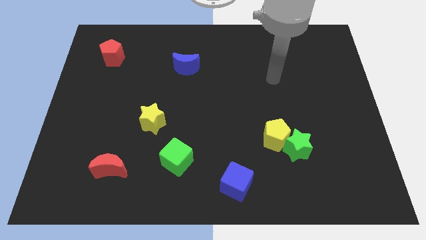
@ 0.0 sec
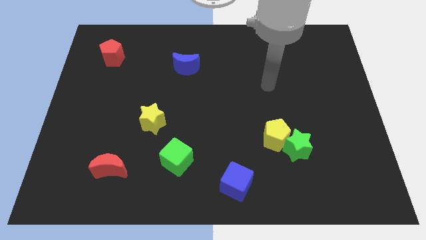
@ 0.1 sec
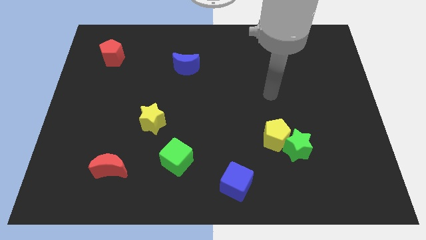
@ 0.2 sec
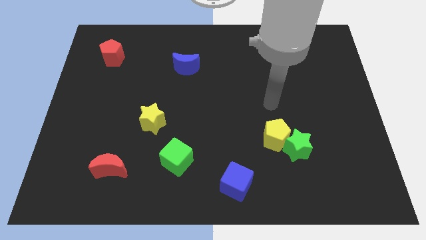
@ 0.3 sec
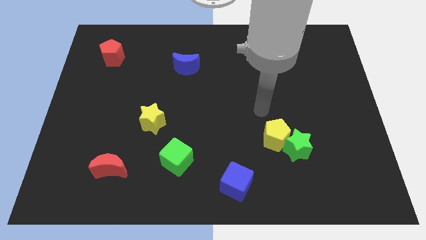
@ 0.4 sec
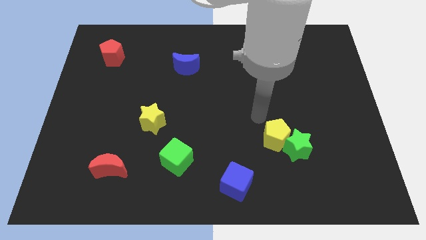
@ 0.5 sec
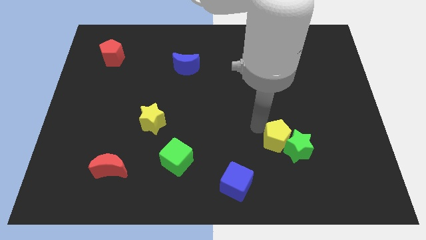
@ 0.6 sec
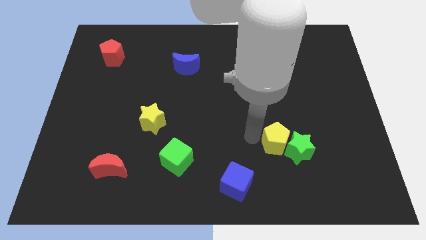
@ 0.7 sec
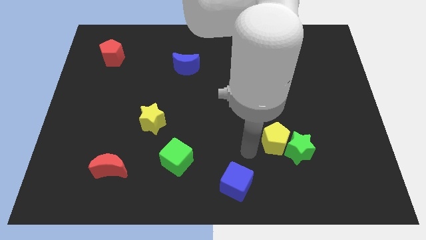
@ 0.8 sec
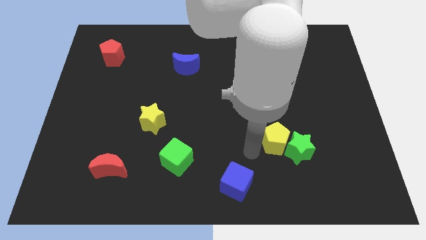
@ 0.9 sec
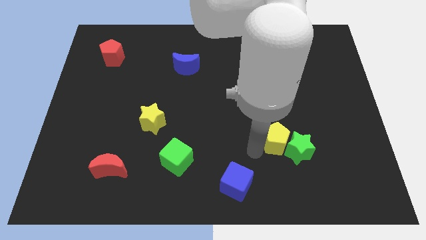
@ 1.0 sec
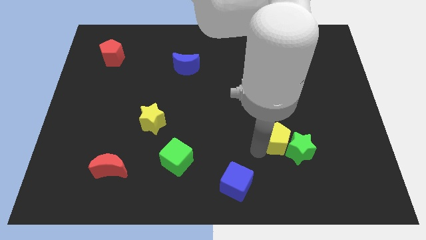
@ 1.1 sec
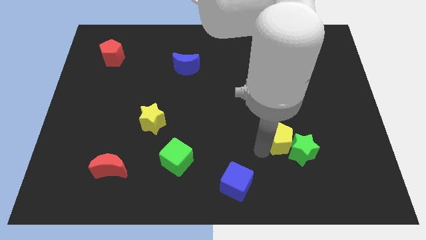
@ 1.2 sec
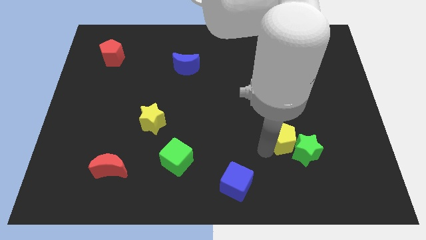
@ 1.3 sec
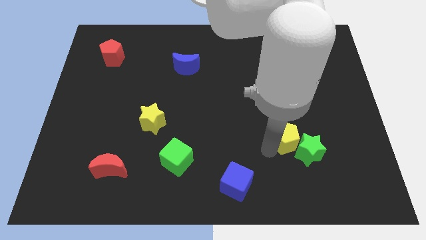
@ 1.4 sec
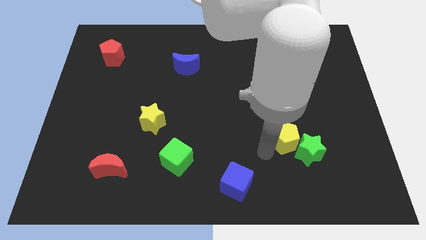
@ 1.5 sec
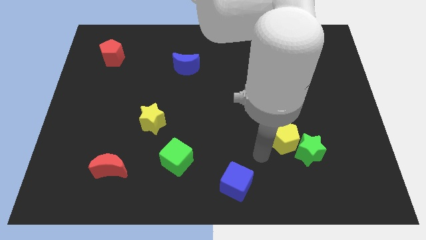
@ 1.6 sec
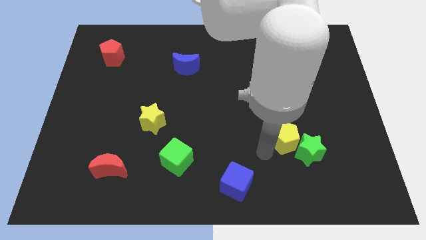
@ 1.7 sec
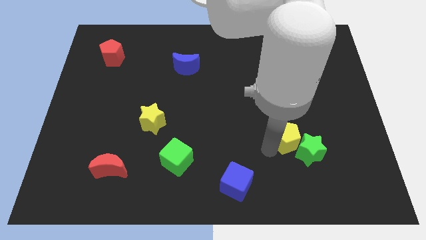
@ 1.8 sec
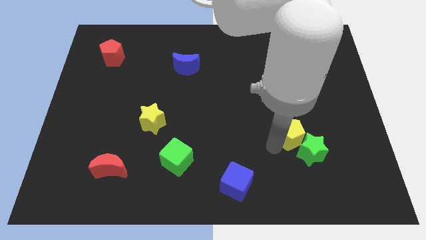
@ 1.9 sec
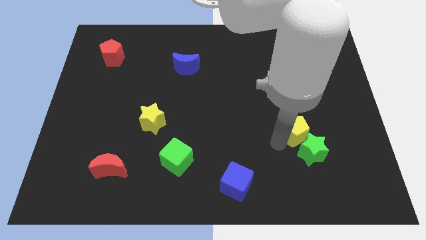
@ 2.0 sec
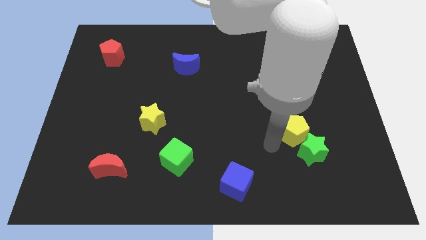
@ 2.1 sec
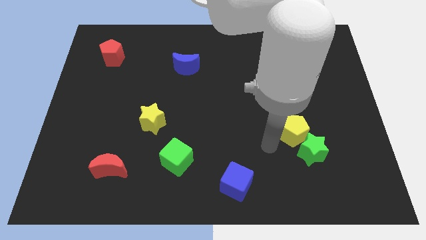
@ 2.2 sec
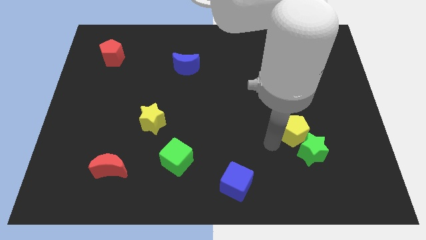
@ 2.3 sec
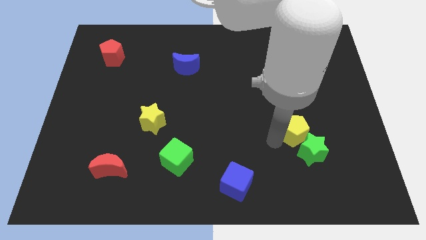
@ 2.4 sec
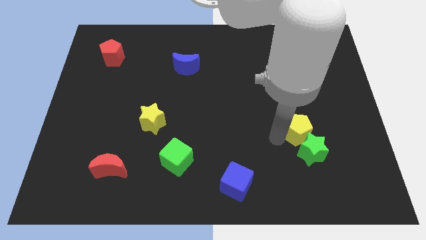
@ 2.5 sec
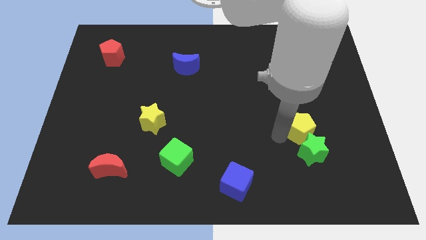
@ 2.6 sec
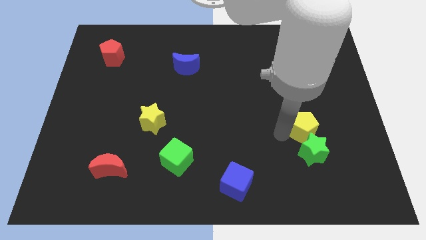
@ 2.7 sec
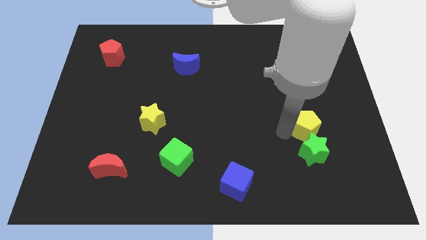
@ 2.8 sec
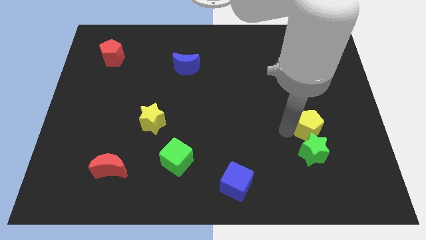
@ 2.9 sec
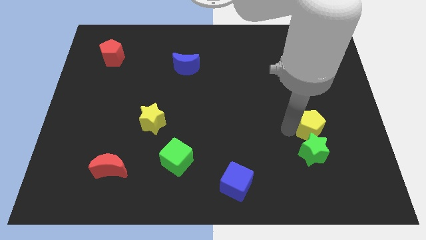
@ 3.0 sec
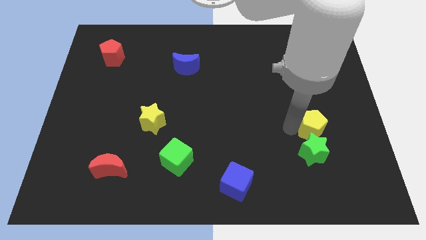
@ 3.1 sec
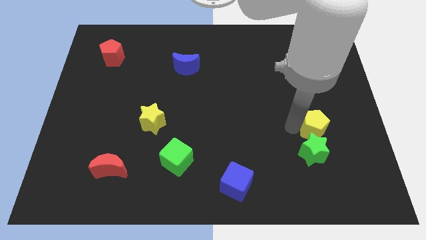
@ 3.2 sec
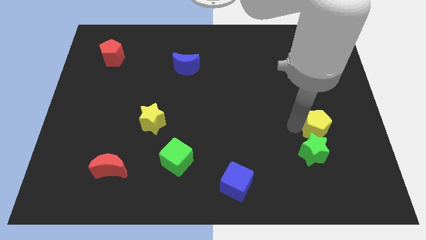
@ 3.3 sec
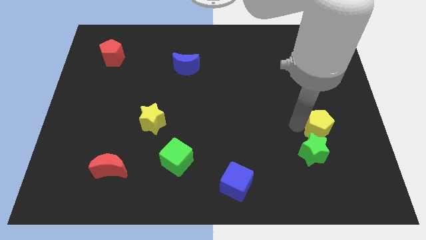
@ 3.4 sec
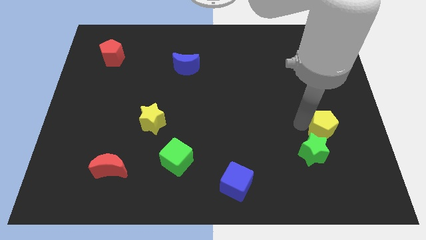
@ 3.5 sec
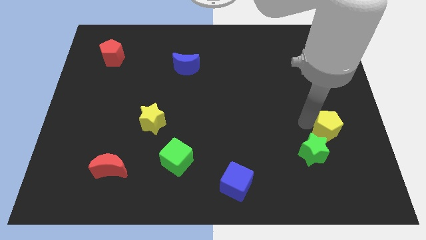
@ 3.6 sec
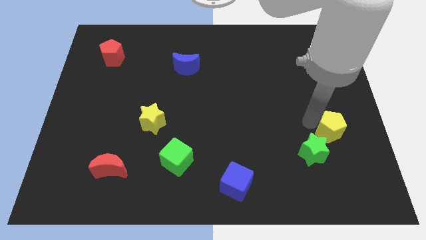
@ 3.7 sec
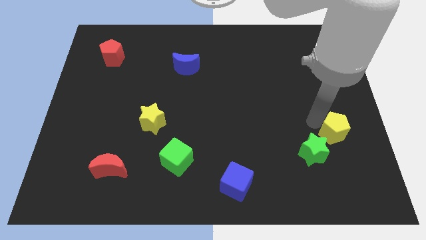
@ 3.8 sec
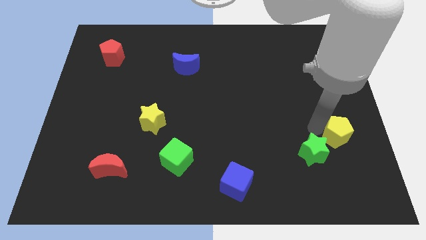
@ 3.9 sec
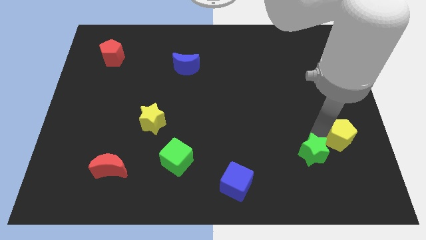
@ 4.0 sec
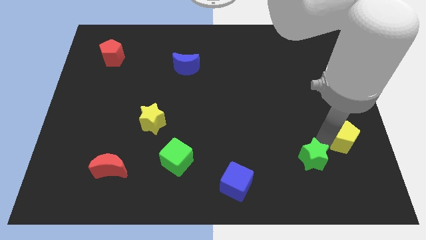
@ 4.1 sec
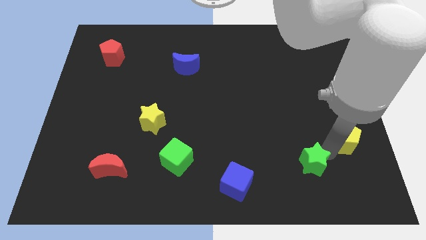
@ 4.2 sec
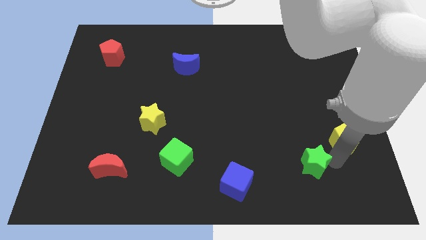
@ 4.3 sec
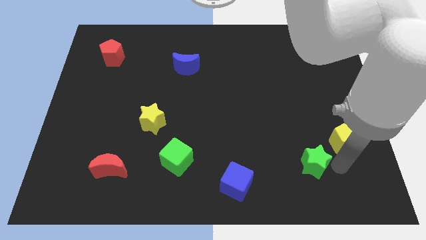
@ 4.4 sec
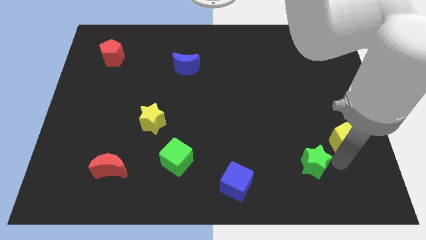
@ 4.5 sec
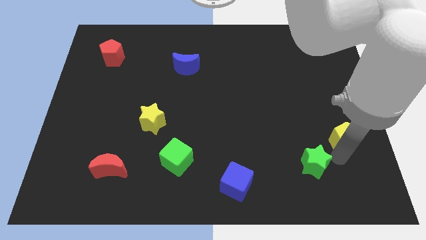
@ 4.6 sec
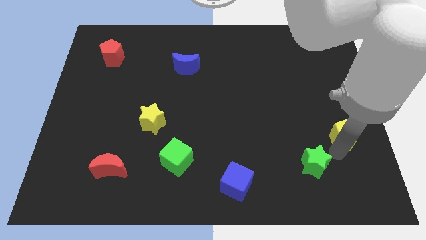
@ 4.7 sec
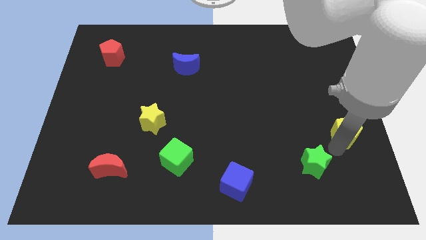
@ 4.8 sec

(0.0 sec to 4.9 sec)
put the yellow pentagon to the right side of the board

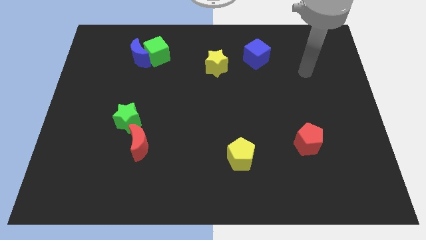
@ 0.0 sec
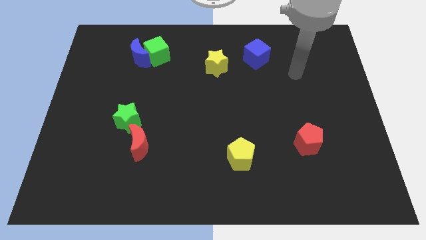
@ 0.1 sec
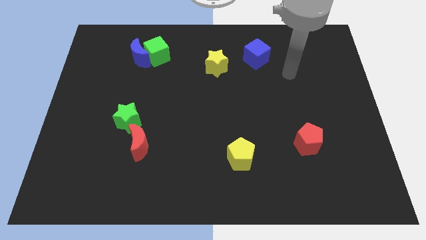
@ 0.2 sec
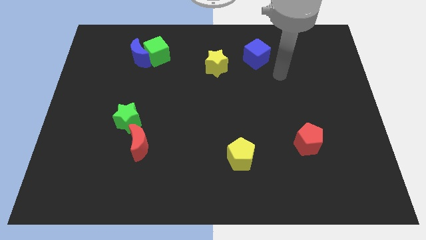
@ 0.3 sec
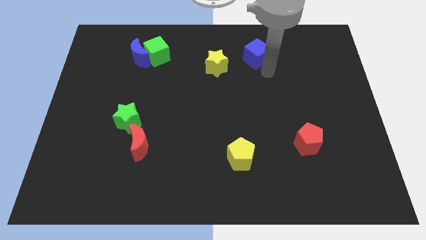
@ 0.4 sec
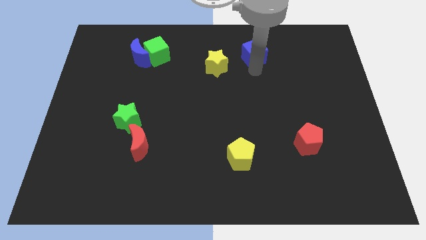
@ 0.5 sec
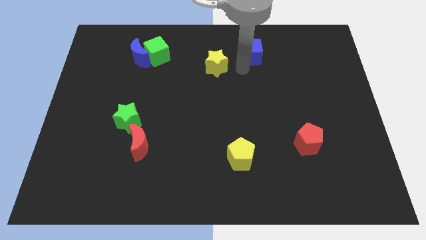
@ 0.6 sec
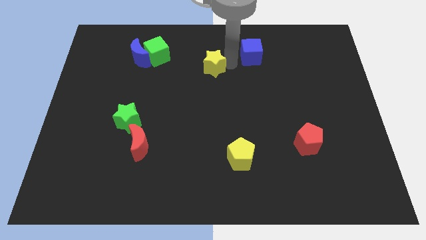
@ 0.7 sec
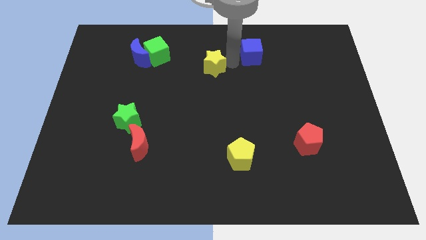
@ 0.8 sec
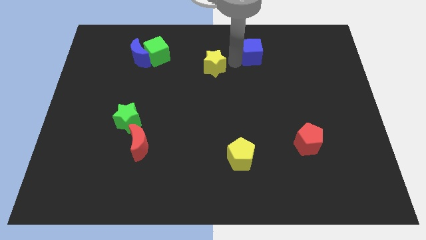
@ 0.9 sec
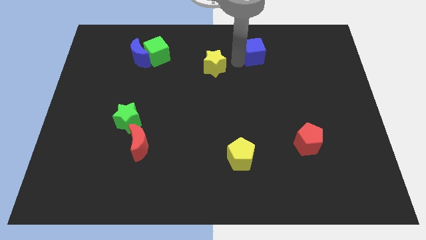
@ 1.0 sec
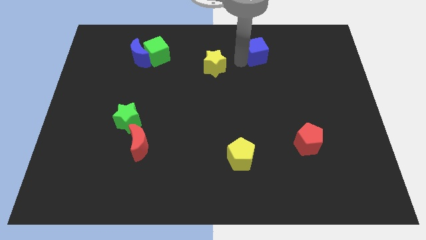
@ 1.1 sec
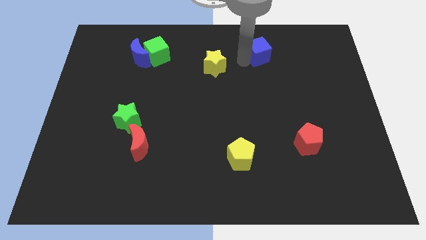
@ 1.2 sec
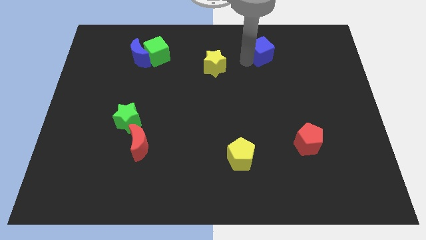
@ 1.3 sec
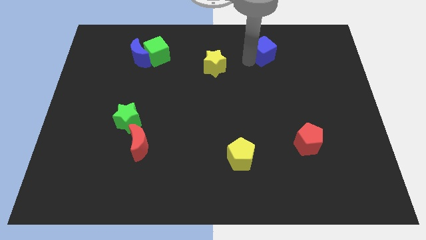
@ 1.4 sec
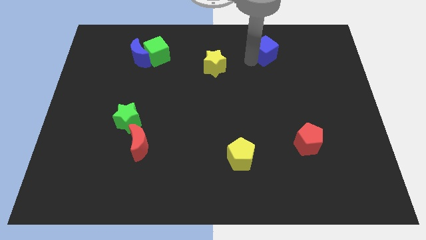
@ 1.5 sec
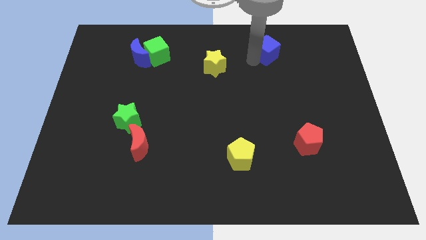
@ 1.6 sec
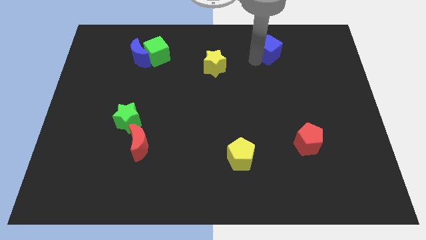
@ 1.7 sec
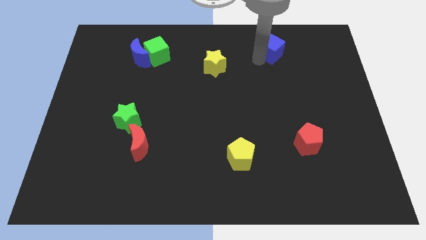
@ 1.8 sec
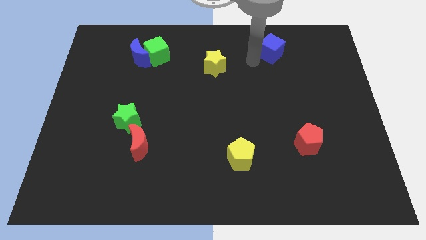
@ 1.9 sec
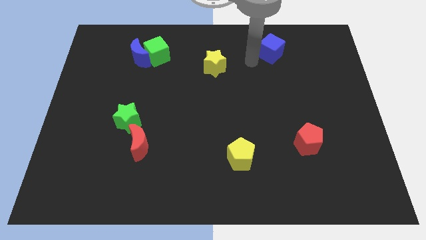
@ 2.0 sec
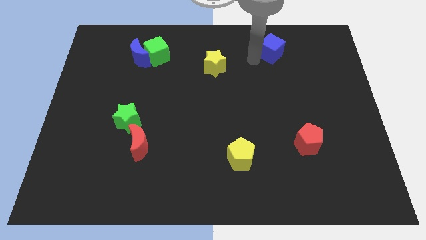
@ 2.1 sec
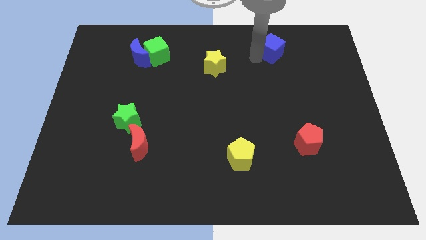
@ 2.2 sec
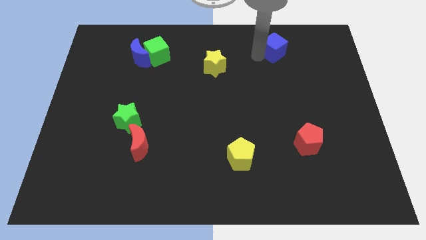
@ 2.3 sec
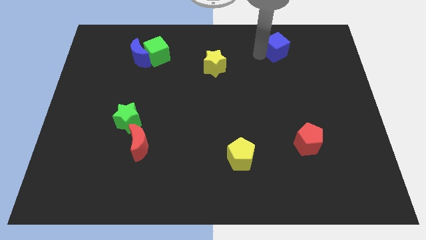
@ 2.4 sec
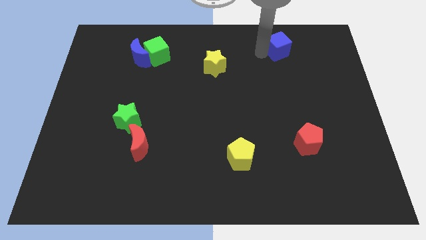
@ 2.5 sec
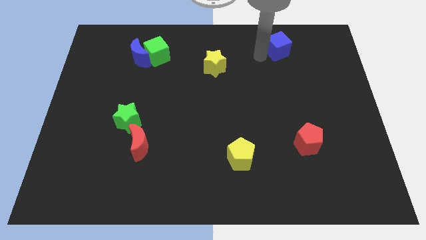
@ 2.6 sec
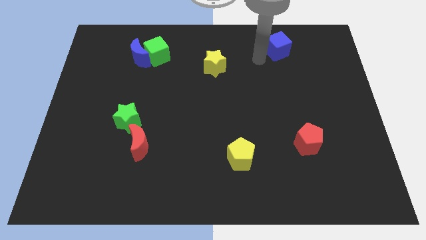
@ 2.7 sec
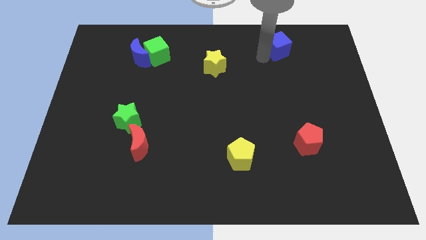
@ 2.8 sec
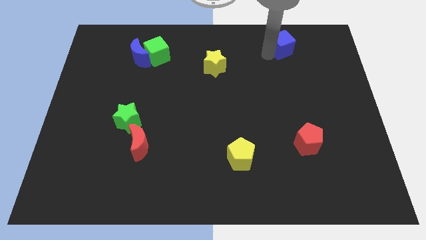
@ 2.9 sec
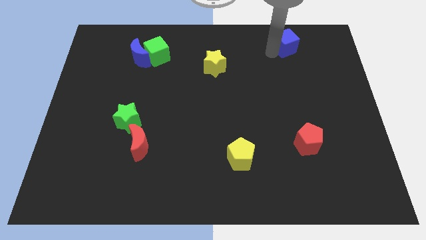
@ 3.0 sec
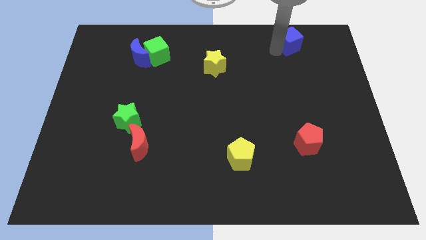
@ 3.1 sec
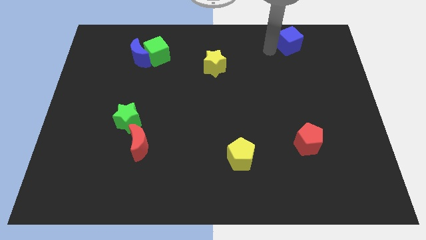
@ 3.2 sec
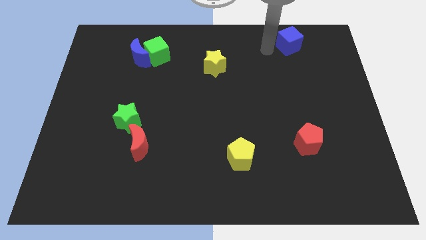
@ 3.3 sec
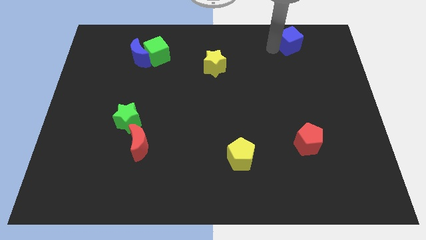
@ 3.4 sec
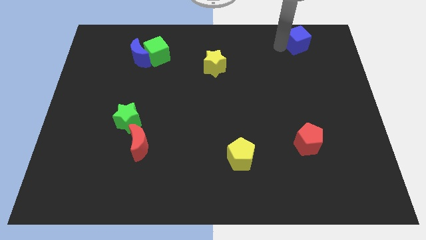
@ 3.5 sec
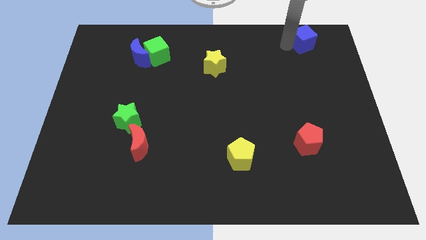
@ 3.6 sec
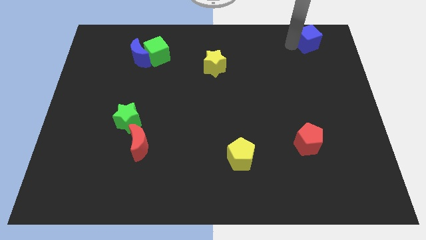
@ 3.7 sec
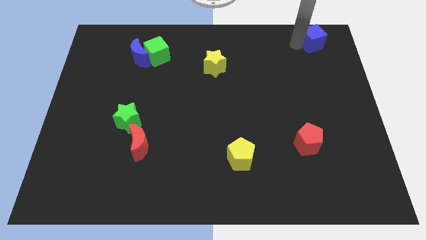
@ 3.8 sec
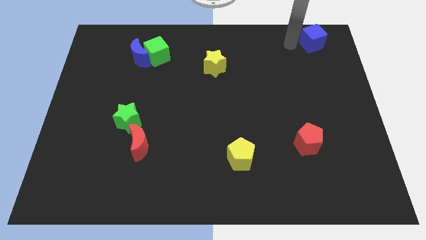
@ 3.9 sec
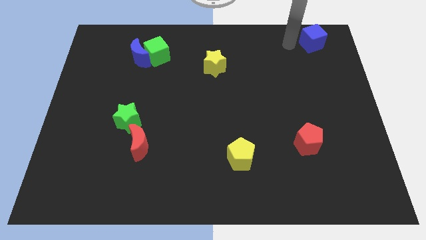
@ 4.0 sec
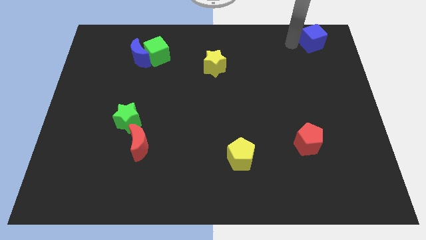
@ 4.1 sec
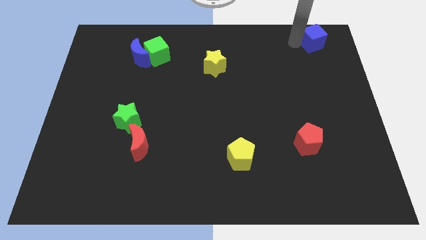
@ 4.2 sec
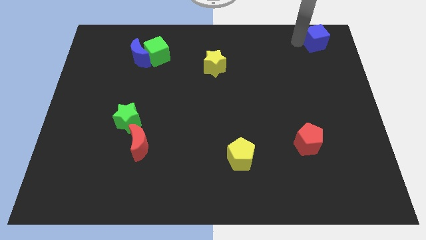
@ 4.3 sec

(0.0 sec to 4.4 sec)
slide the blue cube to the upper right corner
